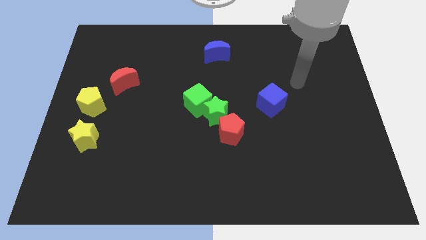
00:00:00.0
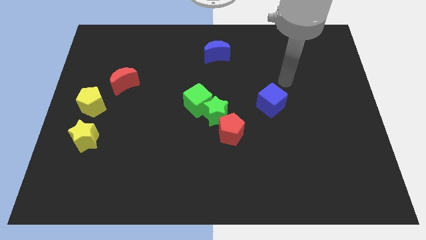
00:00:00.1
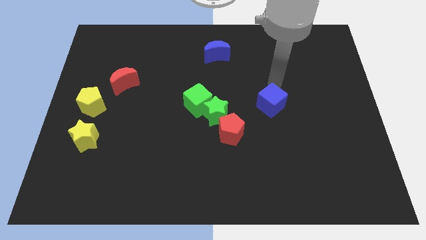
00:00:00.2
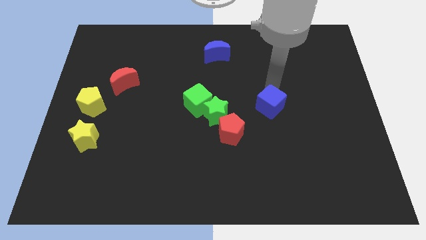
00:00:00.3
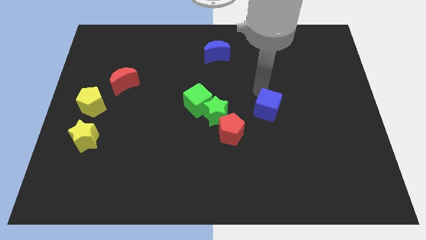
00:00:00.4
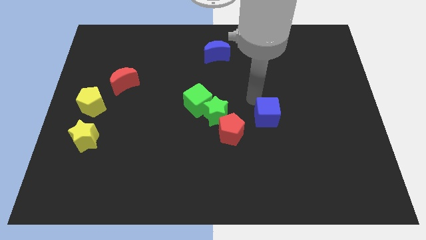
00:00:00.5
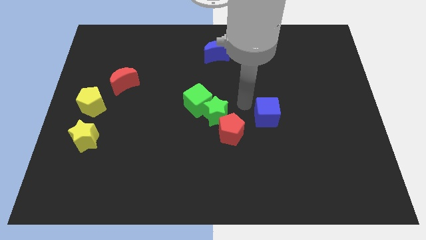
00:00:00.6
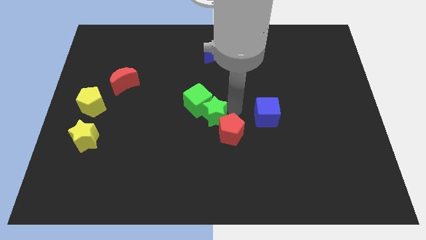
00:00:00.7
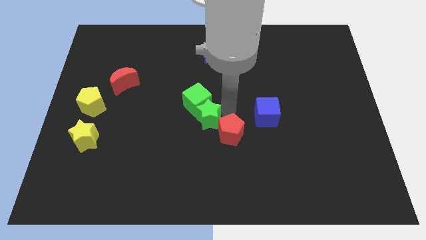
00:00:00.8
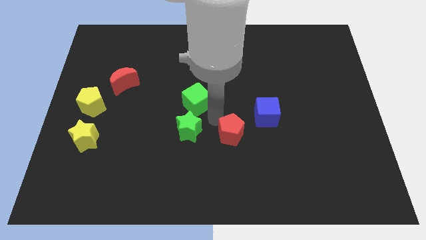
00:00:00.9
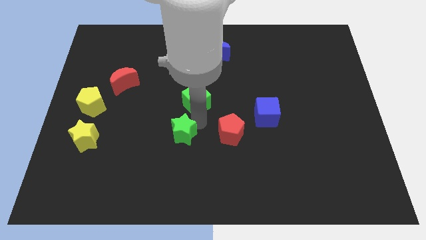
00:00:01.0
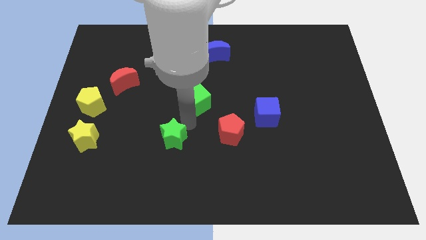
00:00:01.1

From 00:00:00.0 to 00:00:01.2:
separate the green cube from the green star

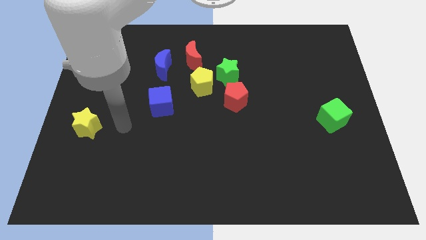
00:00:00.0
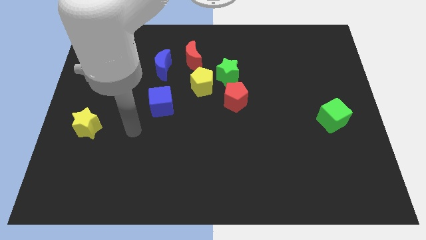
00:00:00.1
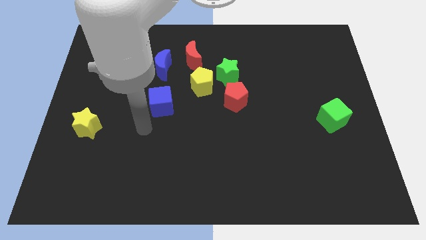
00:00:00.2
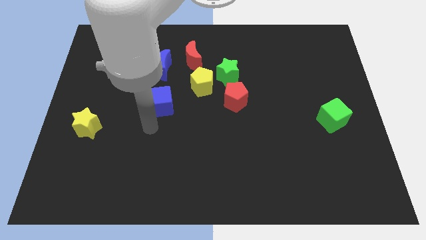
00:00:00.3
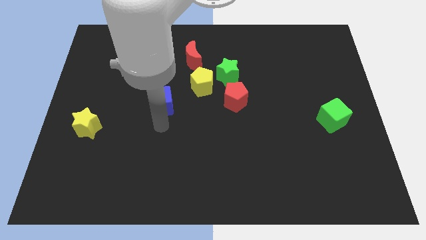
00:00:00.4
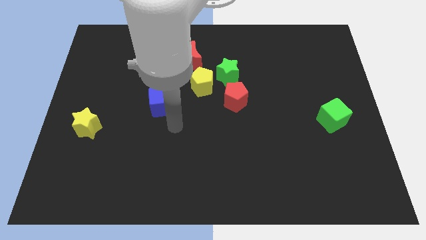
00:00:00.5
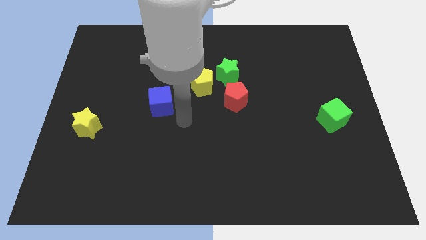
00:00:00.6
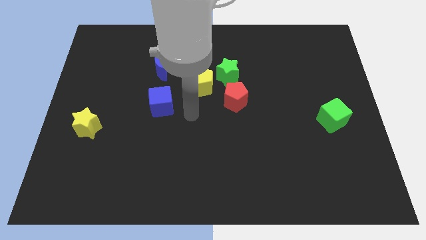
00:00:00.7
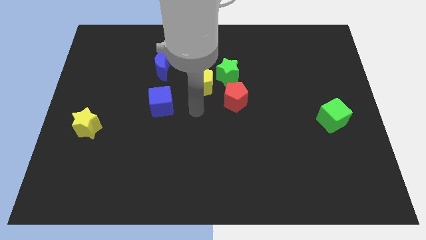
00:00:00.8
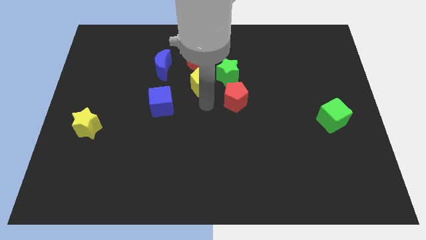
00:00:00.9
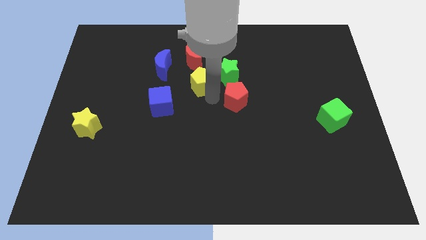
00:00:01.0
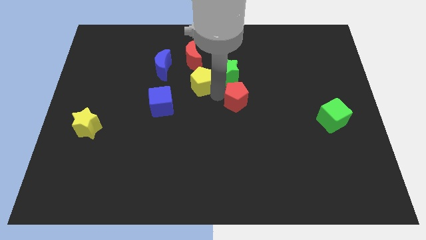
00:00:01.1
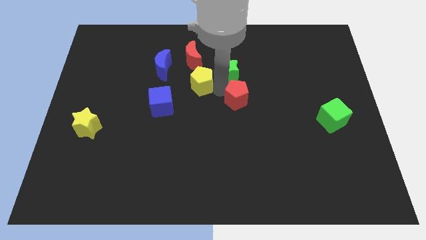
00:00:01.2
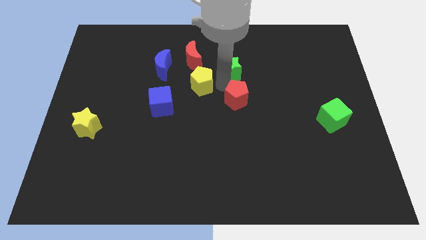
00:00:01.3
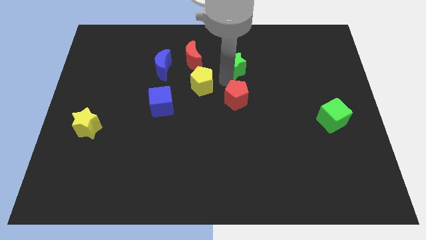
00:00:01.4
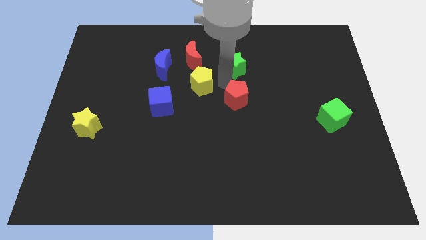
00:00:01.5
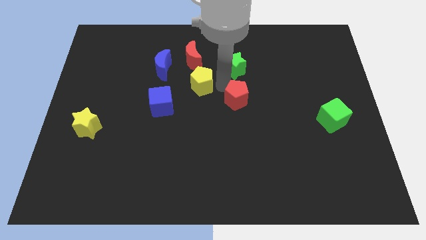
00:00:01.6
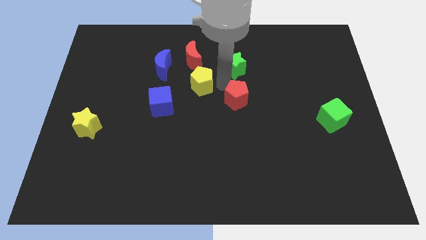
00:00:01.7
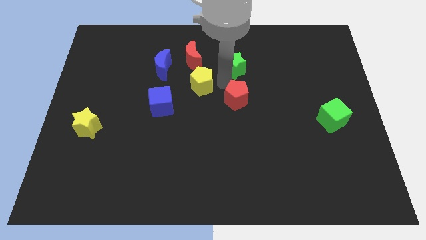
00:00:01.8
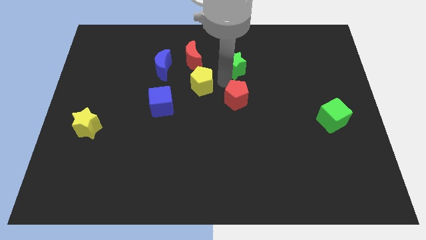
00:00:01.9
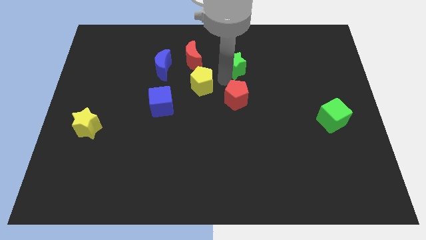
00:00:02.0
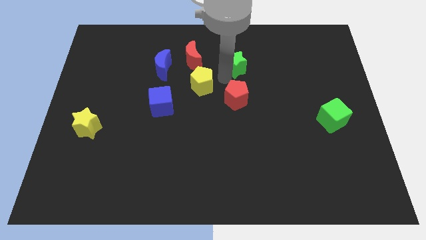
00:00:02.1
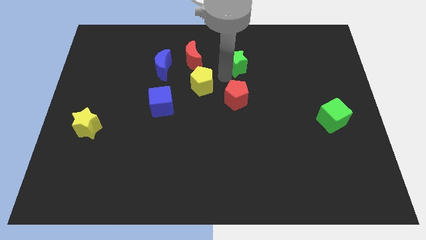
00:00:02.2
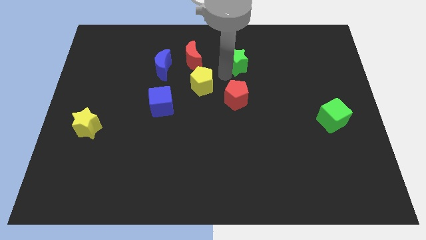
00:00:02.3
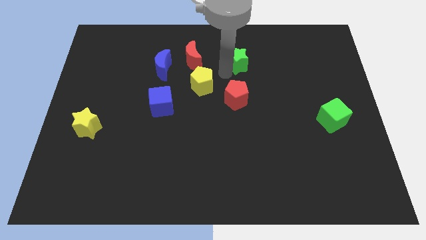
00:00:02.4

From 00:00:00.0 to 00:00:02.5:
pull the green star apart from the yellow pentagon and red pentagon

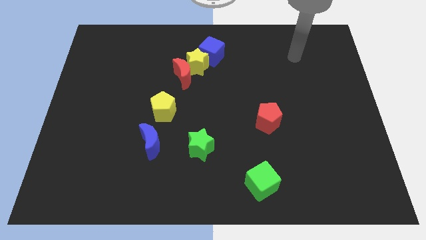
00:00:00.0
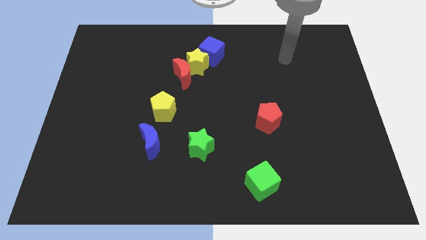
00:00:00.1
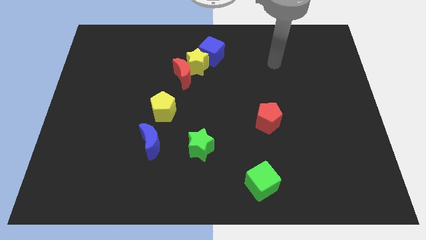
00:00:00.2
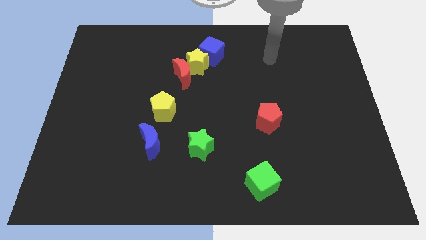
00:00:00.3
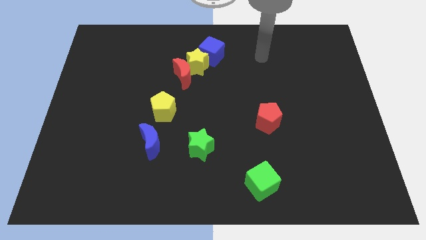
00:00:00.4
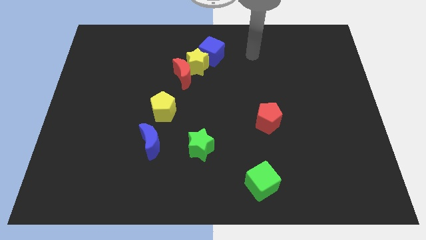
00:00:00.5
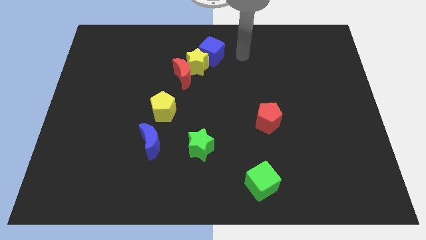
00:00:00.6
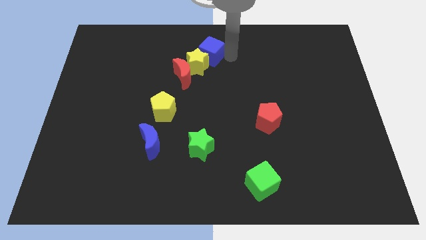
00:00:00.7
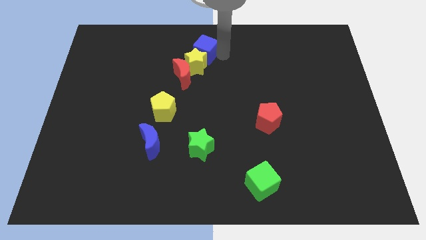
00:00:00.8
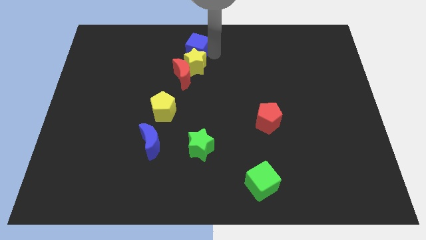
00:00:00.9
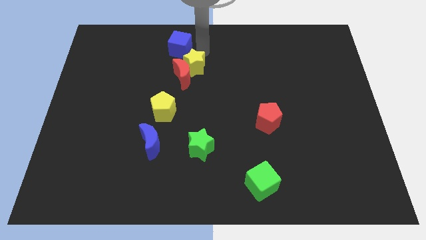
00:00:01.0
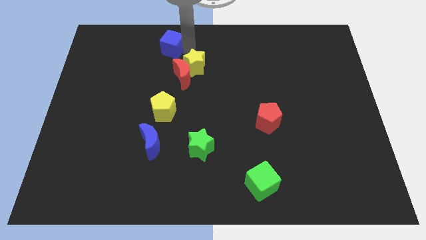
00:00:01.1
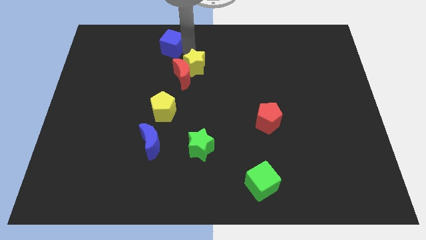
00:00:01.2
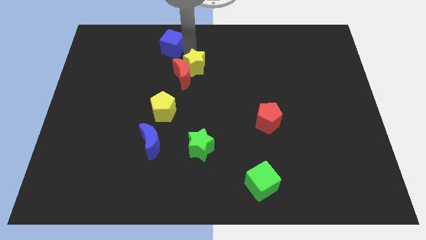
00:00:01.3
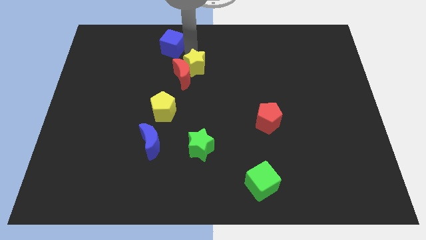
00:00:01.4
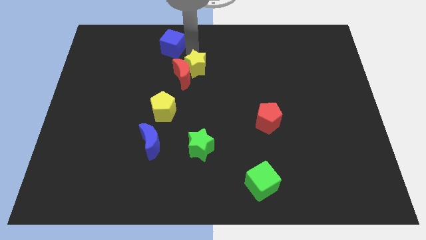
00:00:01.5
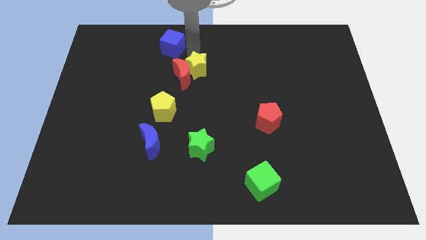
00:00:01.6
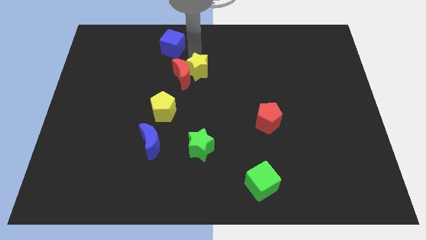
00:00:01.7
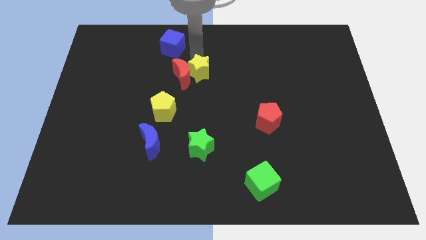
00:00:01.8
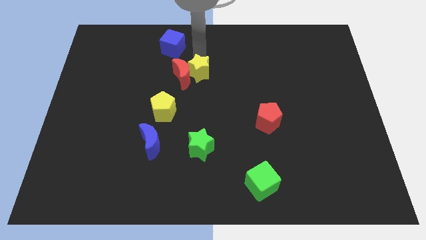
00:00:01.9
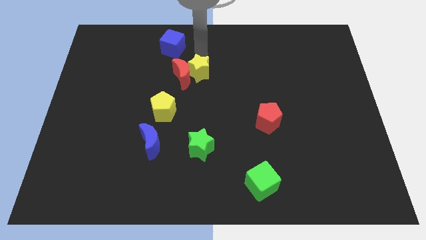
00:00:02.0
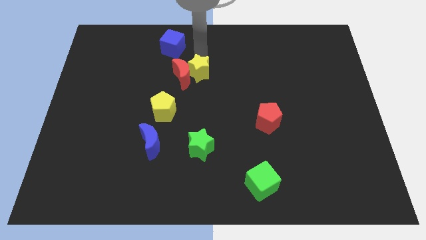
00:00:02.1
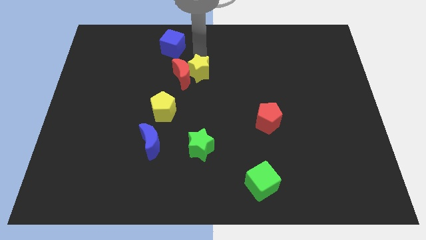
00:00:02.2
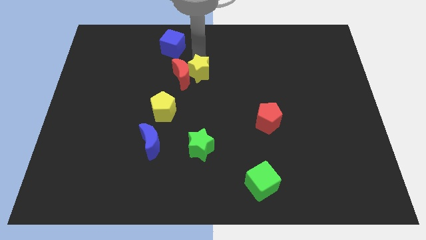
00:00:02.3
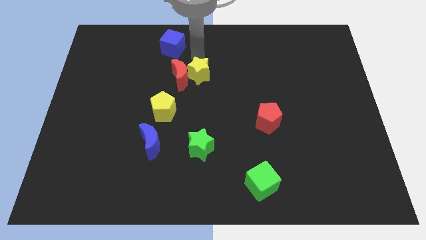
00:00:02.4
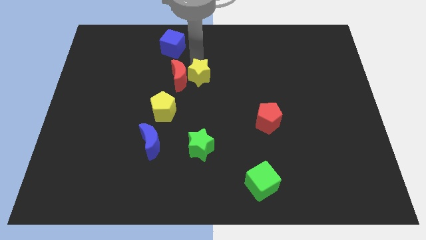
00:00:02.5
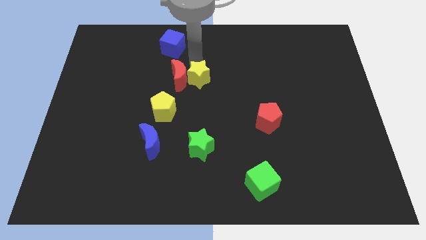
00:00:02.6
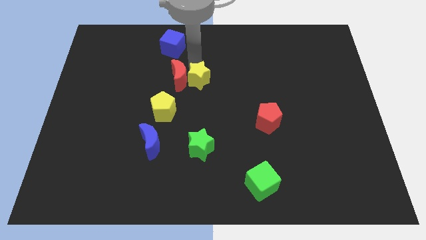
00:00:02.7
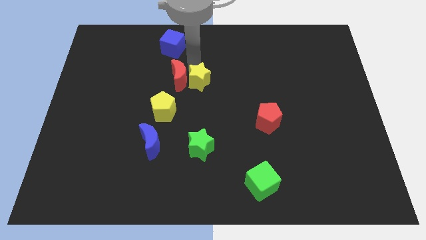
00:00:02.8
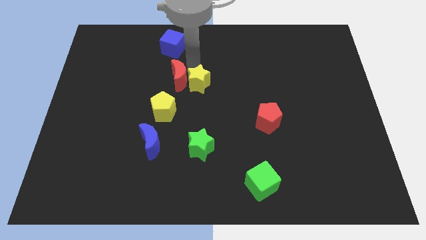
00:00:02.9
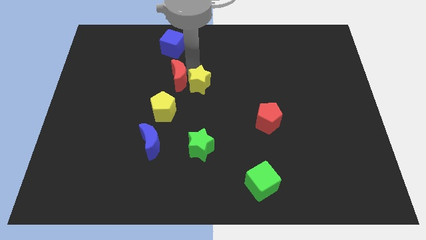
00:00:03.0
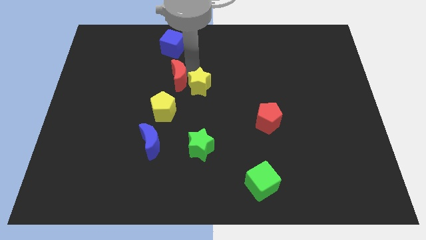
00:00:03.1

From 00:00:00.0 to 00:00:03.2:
separate the yellow star from the red moon and blue cube

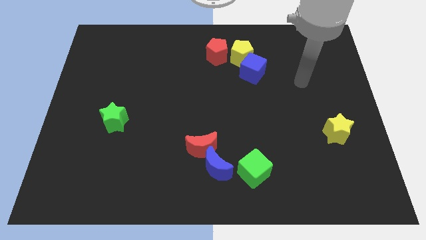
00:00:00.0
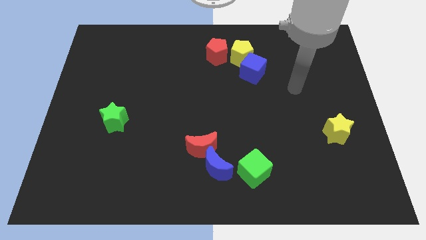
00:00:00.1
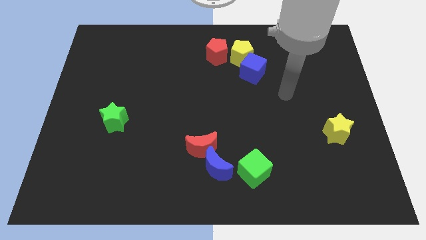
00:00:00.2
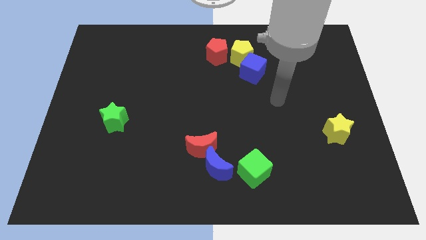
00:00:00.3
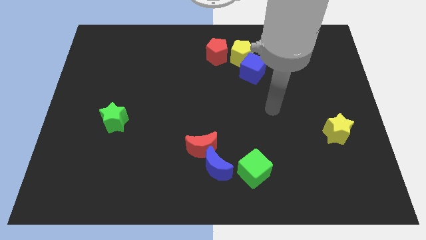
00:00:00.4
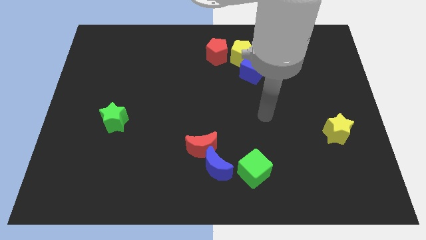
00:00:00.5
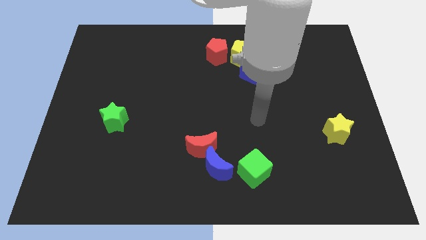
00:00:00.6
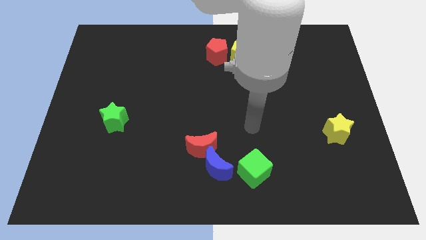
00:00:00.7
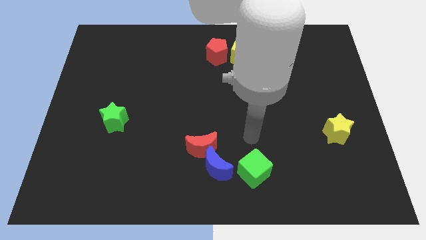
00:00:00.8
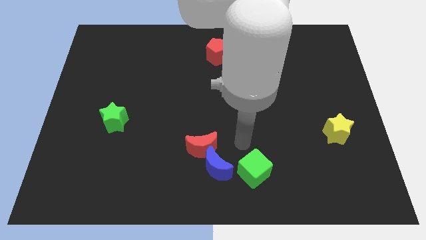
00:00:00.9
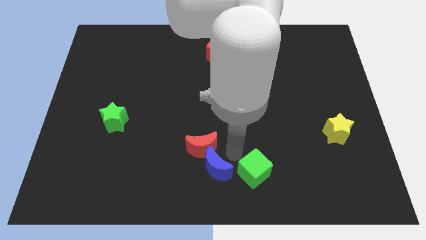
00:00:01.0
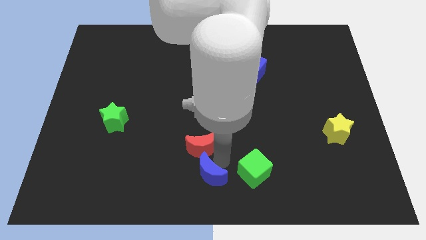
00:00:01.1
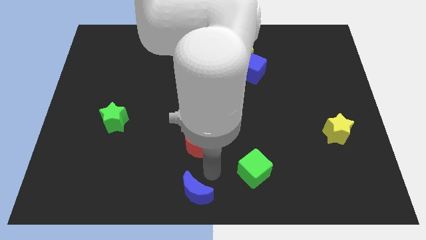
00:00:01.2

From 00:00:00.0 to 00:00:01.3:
separate the red moon from the blue moon

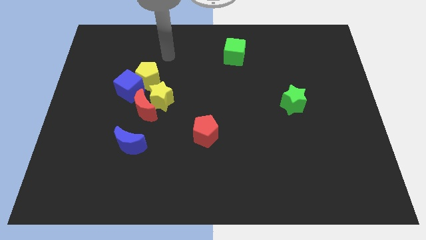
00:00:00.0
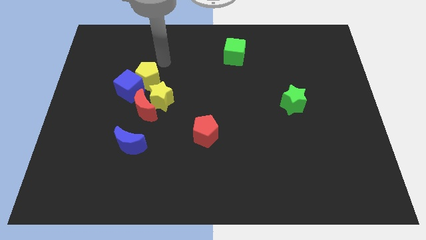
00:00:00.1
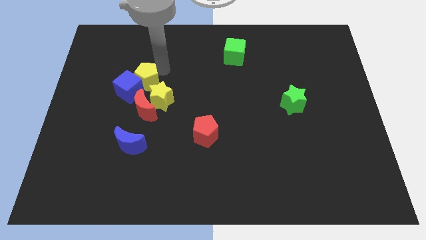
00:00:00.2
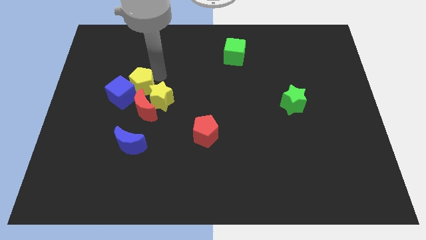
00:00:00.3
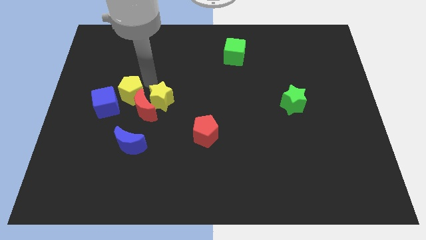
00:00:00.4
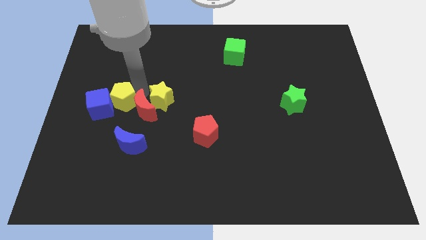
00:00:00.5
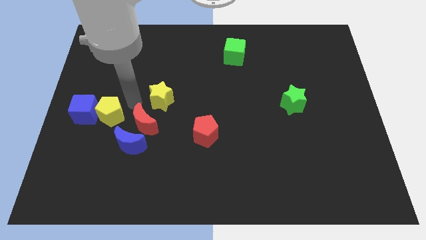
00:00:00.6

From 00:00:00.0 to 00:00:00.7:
separate the yellow star from the red moon, yellow pentagon, and blue cube

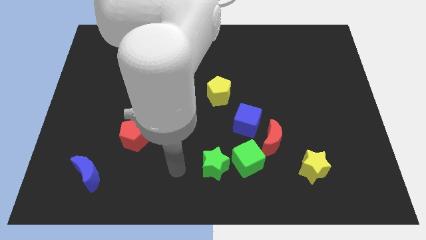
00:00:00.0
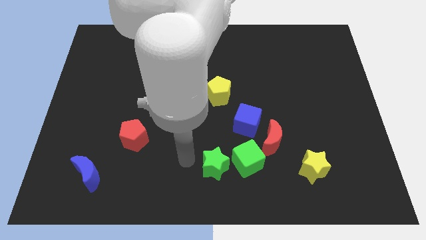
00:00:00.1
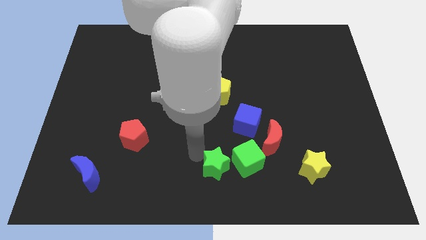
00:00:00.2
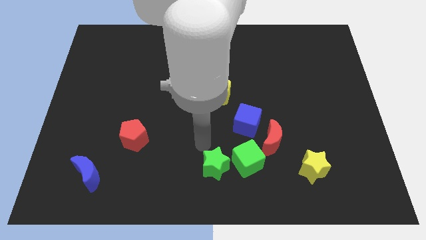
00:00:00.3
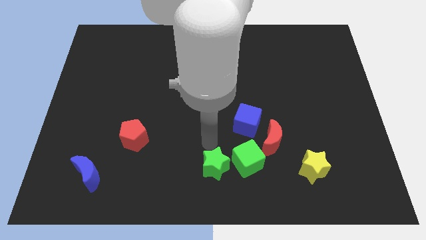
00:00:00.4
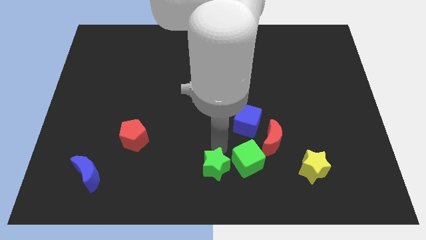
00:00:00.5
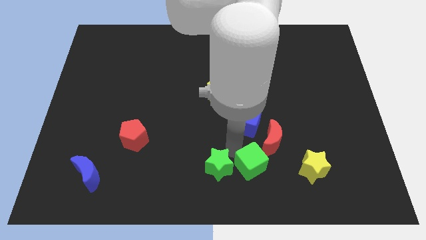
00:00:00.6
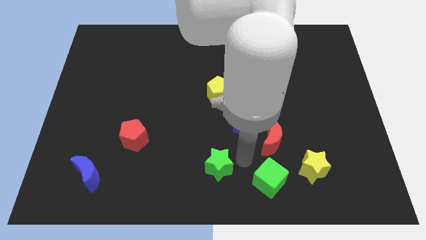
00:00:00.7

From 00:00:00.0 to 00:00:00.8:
pull the green star apart from the green cube
